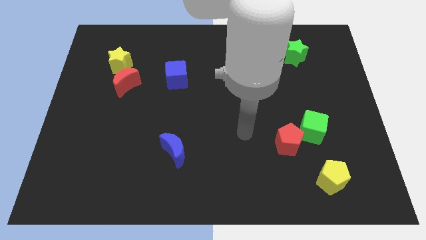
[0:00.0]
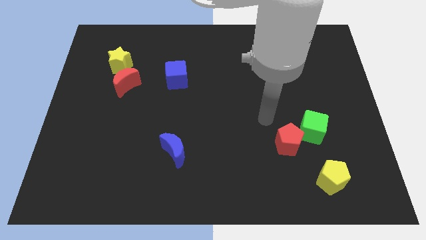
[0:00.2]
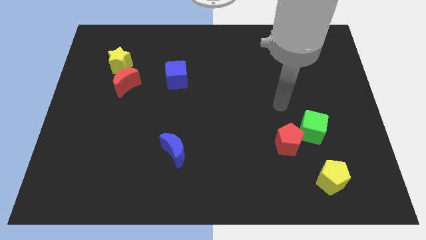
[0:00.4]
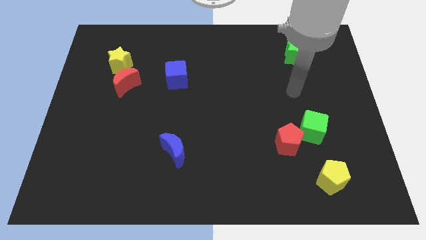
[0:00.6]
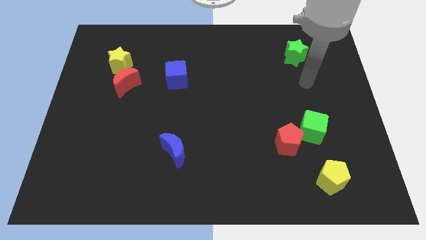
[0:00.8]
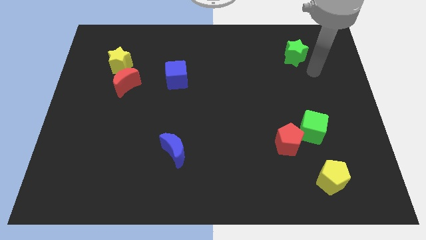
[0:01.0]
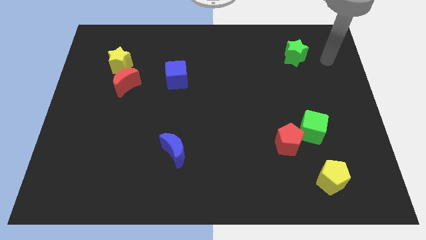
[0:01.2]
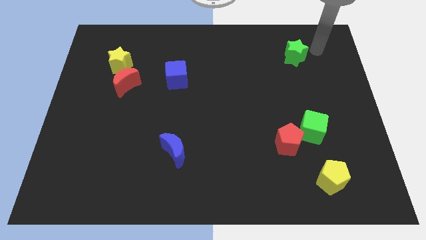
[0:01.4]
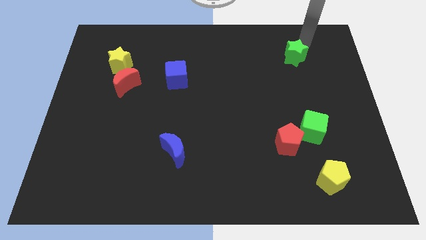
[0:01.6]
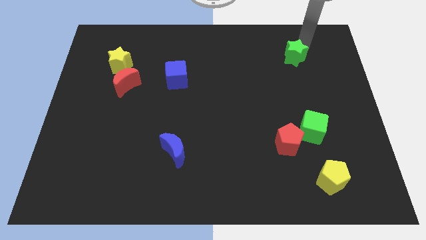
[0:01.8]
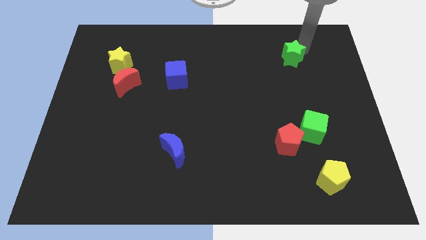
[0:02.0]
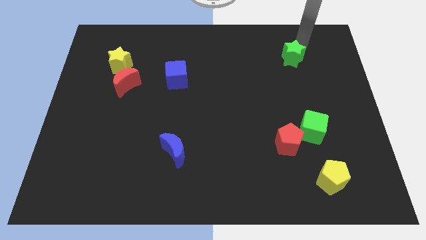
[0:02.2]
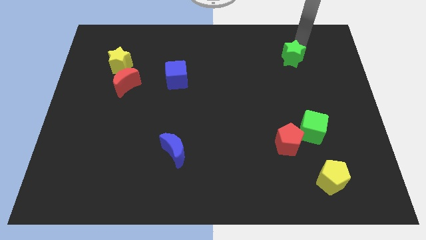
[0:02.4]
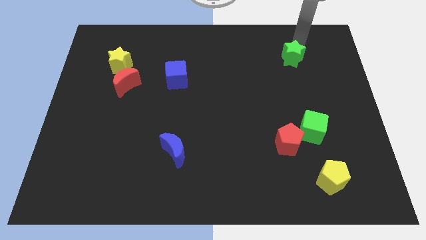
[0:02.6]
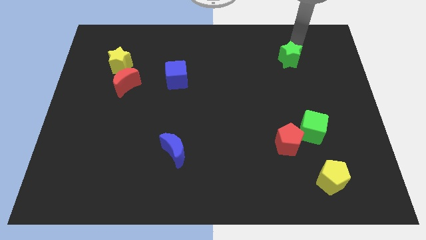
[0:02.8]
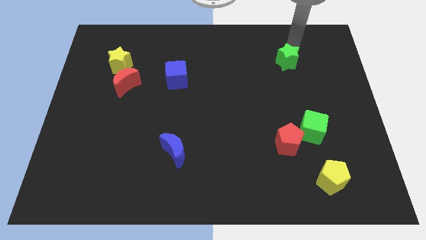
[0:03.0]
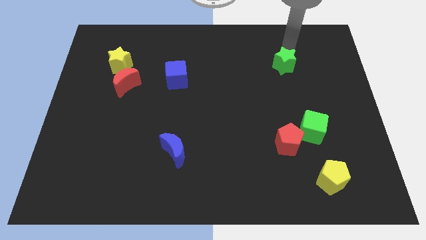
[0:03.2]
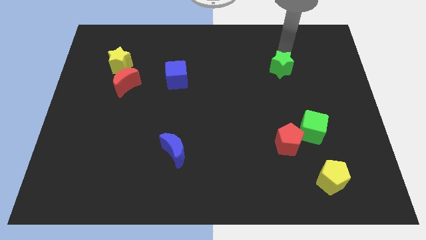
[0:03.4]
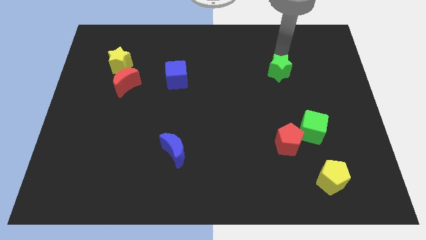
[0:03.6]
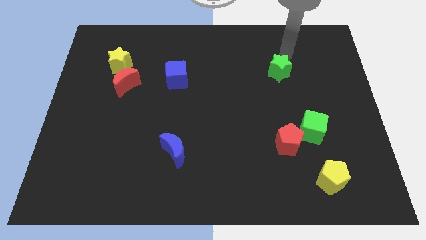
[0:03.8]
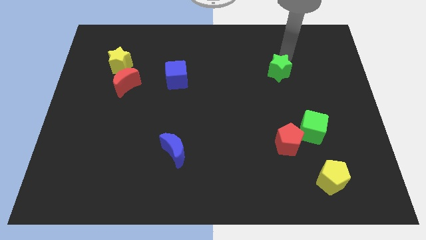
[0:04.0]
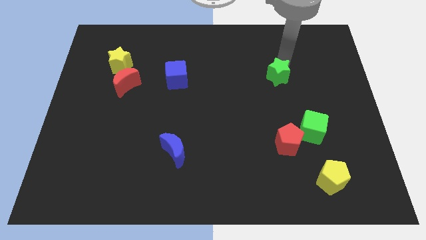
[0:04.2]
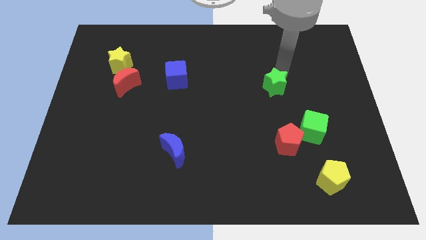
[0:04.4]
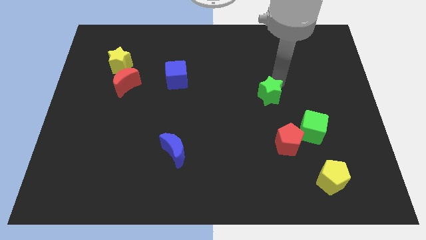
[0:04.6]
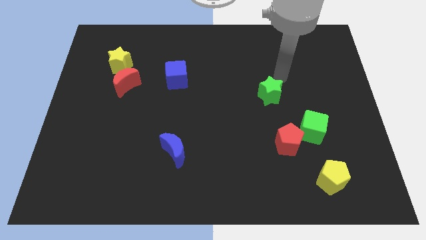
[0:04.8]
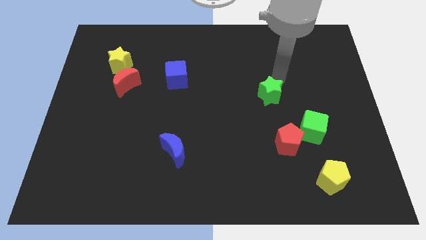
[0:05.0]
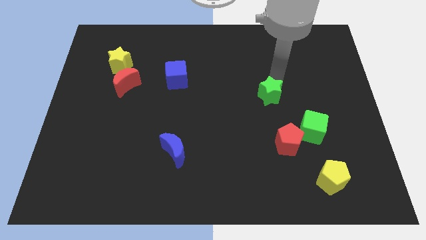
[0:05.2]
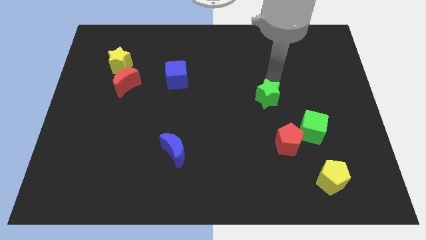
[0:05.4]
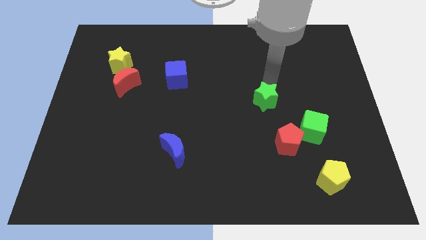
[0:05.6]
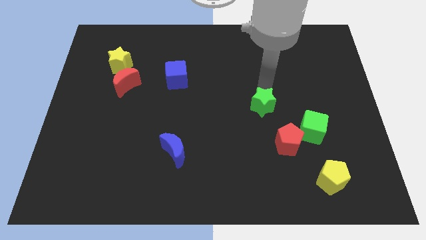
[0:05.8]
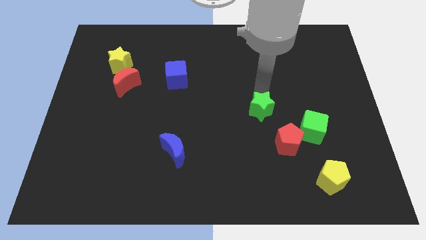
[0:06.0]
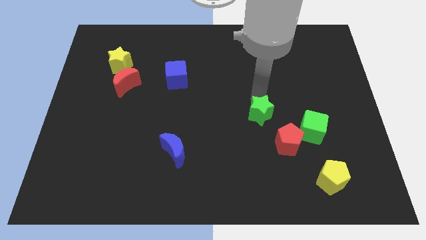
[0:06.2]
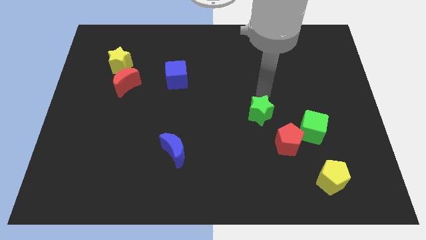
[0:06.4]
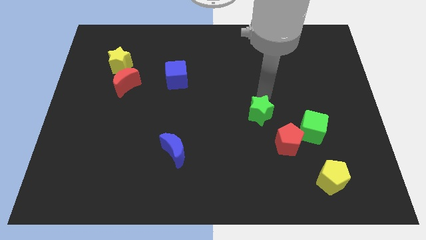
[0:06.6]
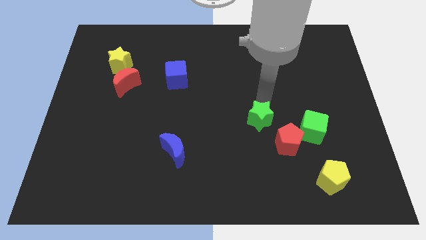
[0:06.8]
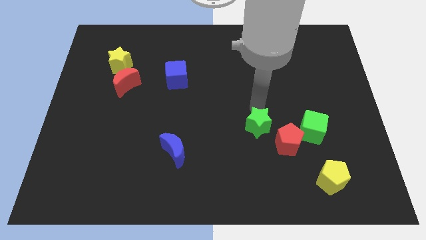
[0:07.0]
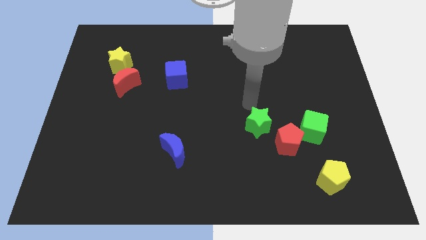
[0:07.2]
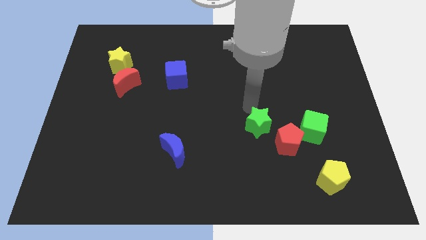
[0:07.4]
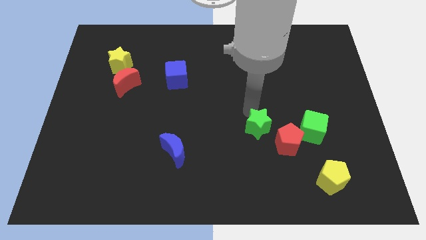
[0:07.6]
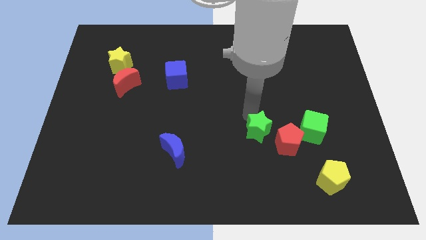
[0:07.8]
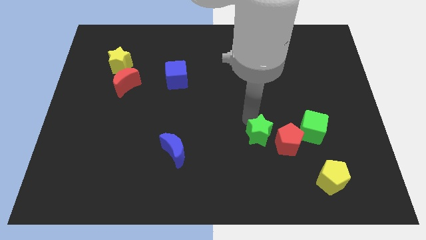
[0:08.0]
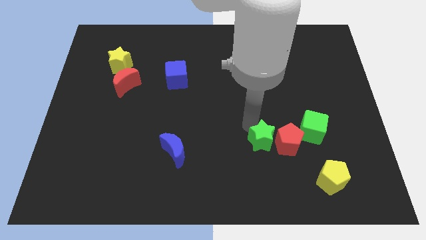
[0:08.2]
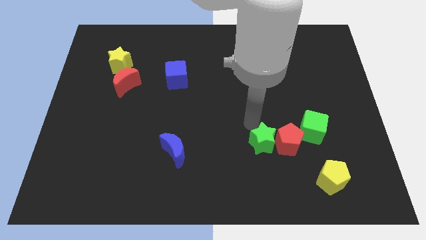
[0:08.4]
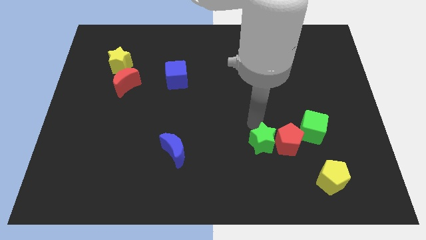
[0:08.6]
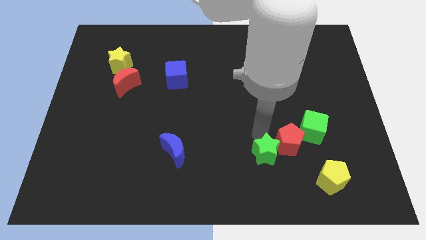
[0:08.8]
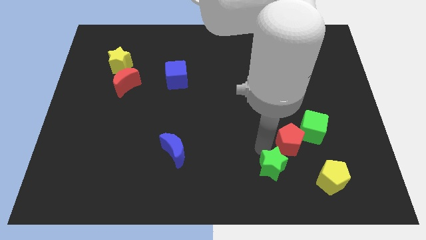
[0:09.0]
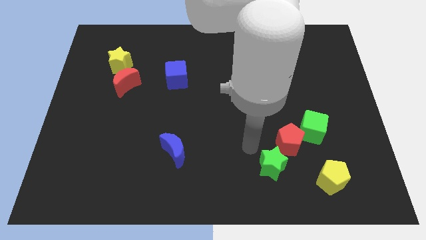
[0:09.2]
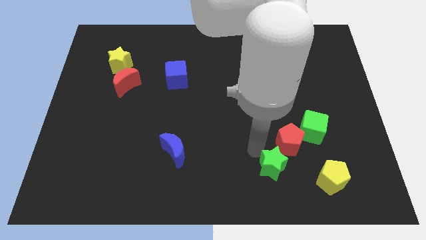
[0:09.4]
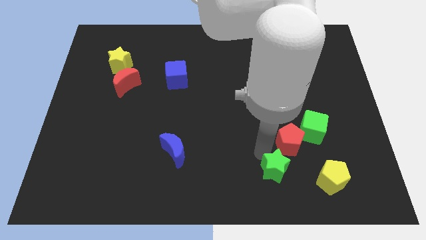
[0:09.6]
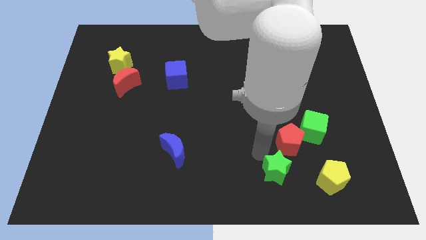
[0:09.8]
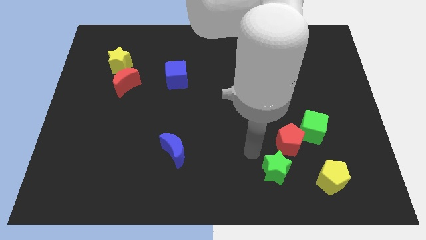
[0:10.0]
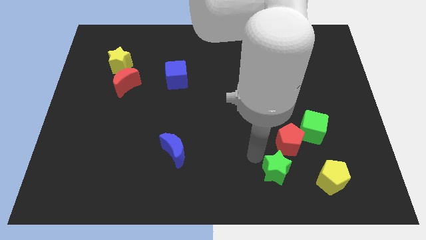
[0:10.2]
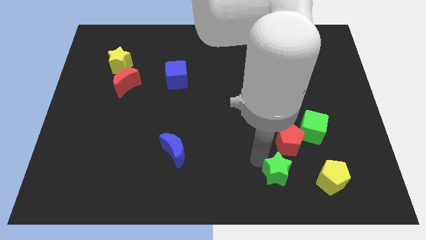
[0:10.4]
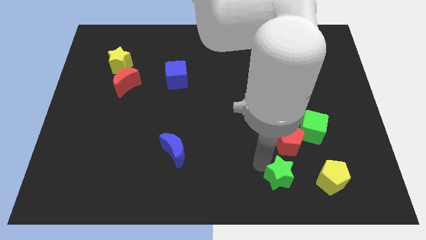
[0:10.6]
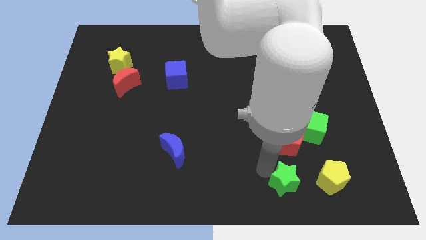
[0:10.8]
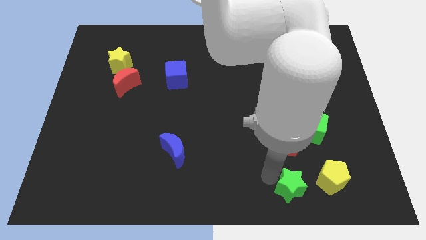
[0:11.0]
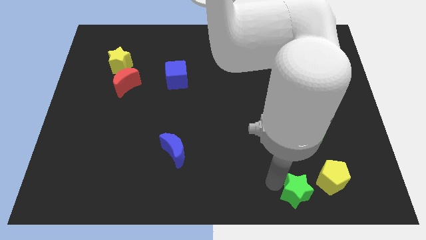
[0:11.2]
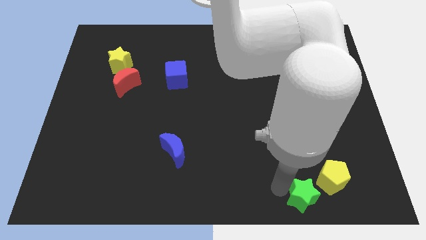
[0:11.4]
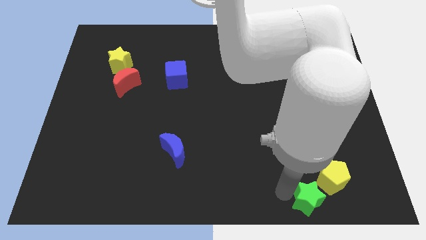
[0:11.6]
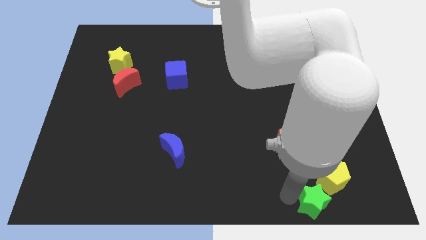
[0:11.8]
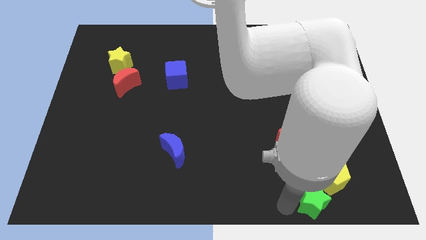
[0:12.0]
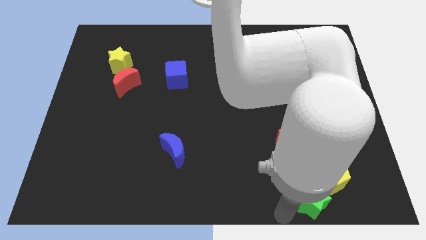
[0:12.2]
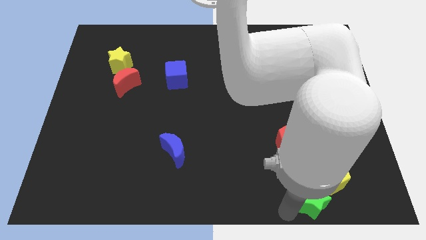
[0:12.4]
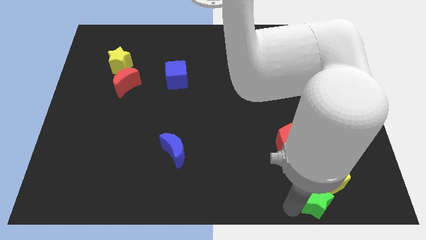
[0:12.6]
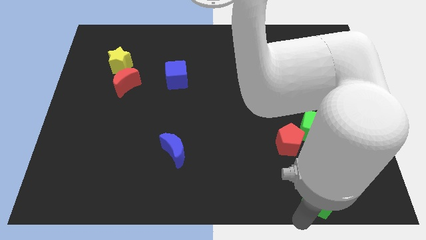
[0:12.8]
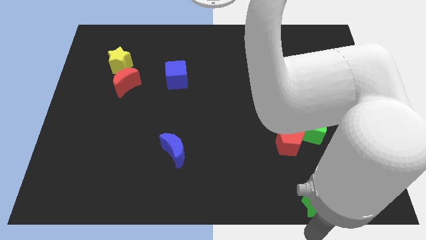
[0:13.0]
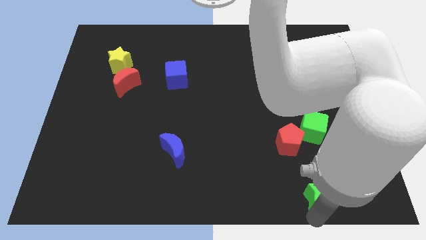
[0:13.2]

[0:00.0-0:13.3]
push the green star below the green cube
